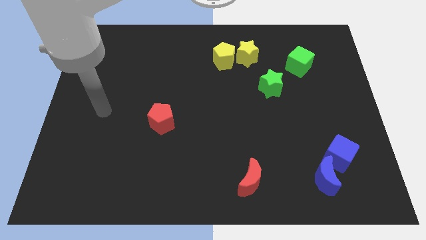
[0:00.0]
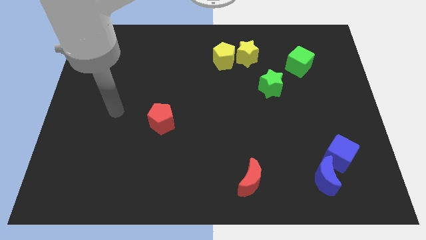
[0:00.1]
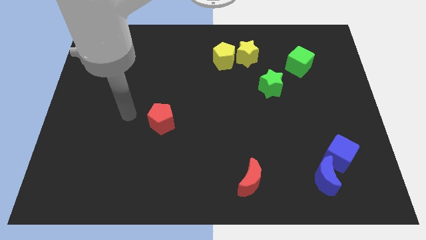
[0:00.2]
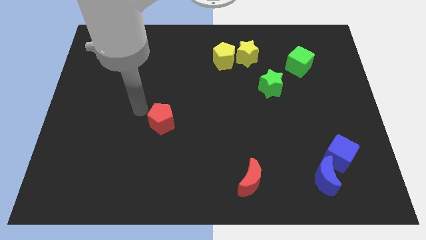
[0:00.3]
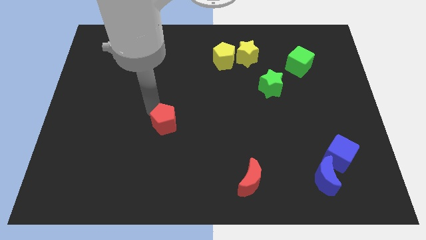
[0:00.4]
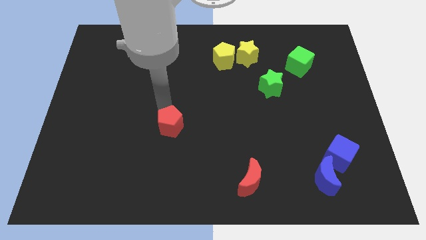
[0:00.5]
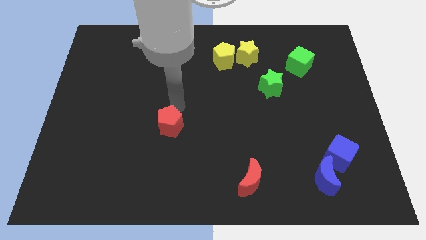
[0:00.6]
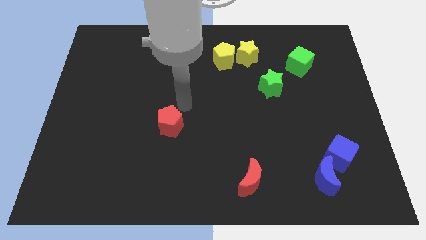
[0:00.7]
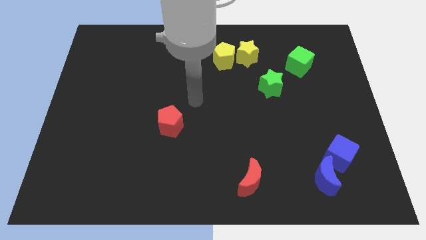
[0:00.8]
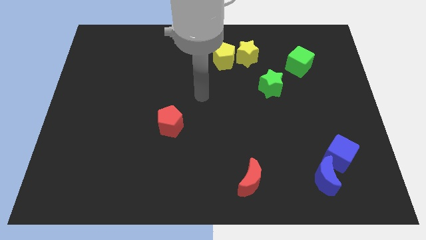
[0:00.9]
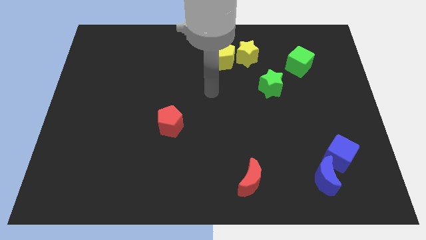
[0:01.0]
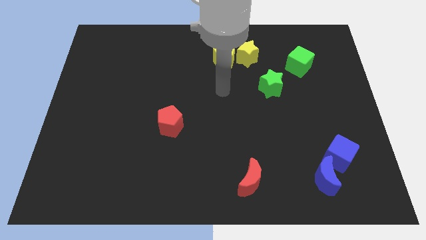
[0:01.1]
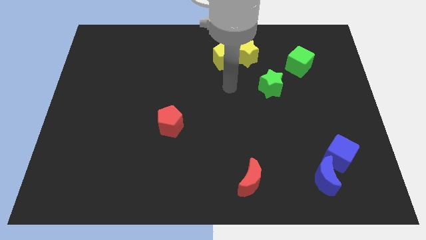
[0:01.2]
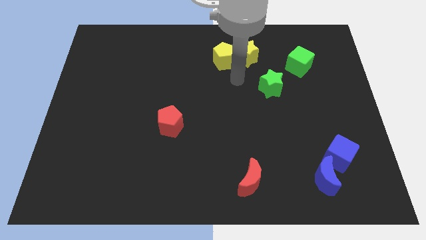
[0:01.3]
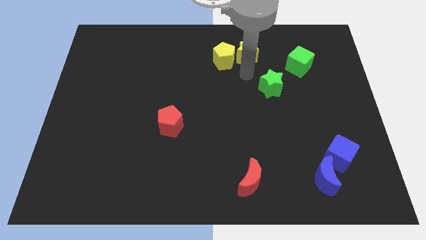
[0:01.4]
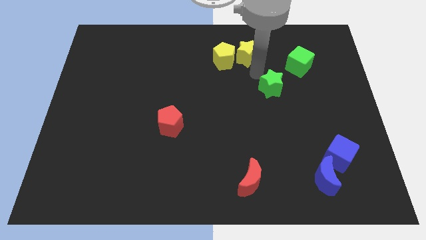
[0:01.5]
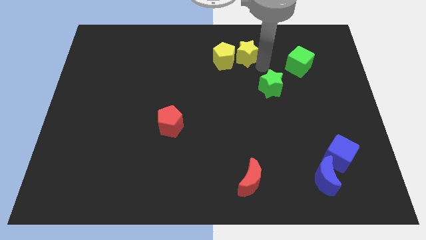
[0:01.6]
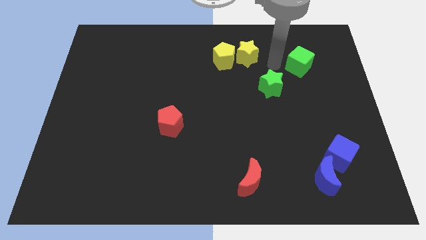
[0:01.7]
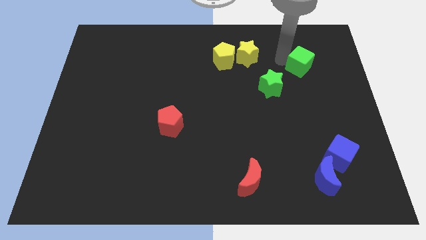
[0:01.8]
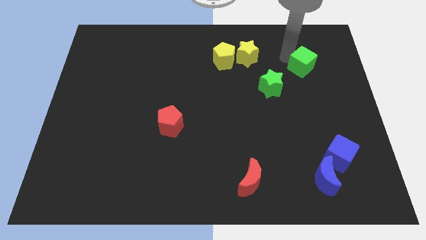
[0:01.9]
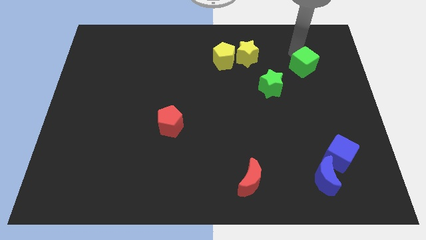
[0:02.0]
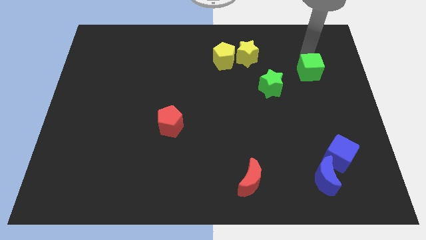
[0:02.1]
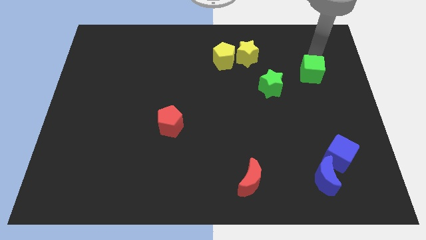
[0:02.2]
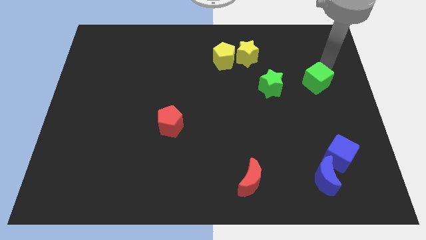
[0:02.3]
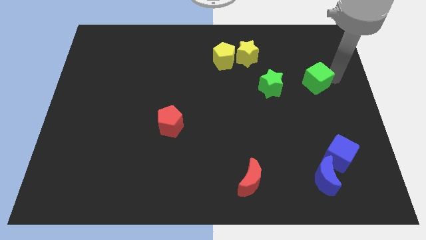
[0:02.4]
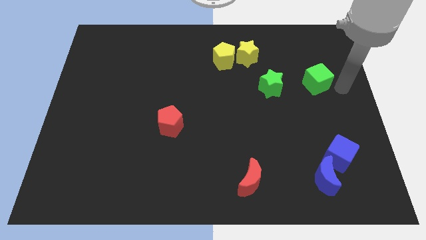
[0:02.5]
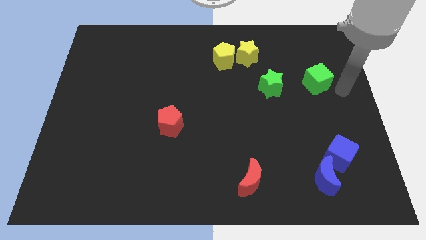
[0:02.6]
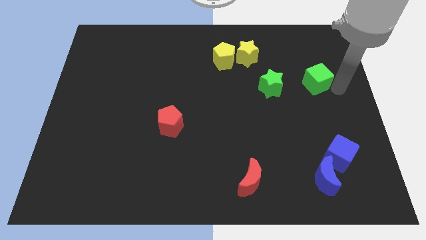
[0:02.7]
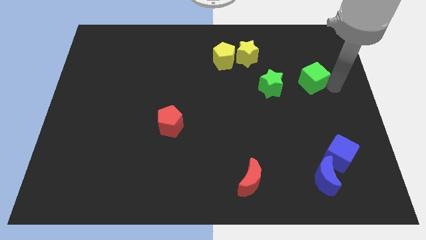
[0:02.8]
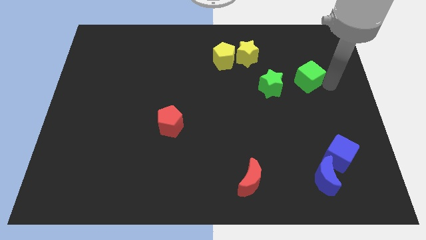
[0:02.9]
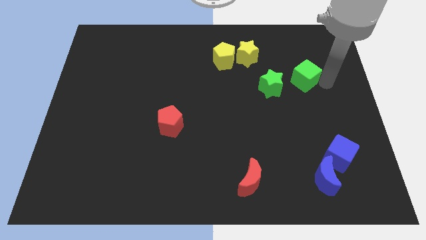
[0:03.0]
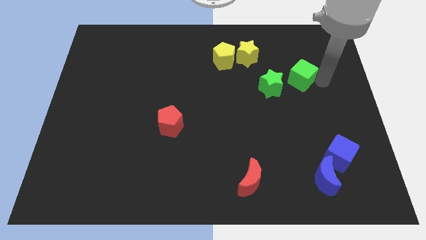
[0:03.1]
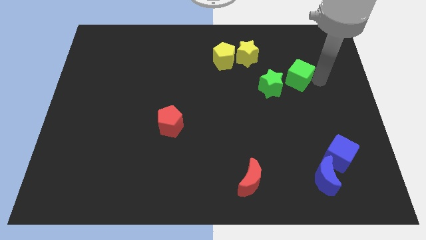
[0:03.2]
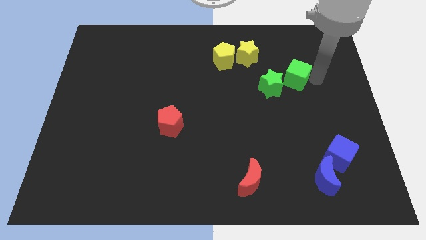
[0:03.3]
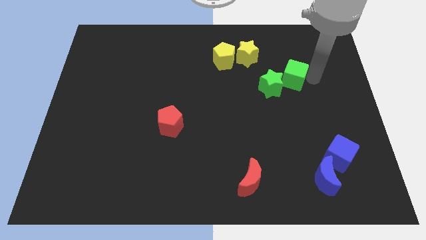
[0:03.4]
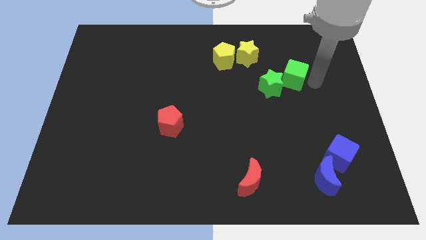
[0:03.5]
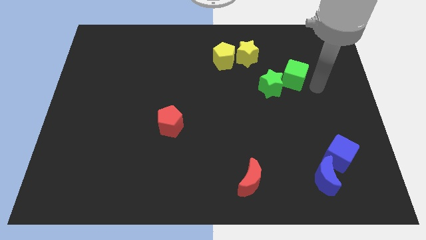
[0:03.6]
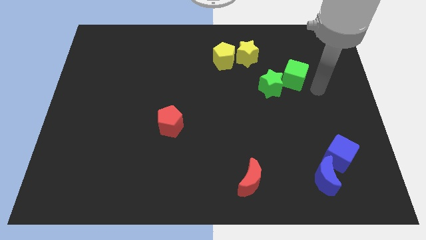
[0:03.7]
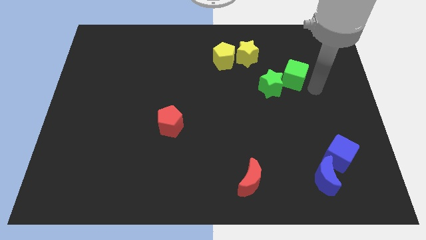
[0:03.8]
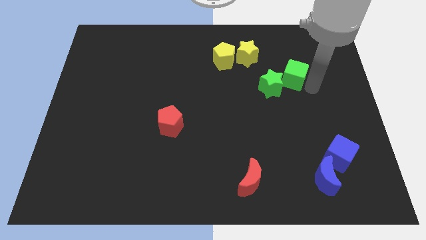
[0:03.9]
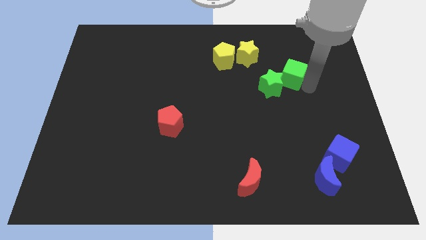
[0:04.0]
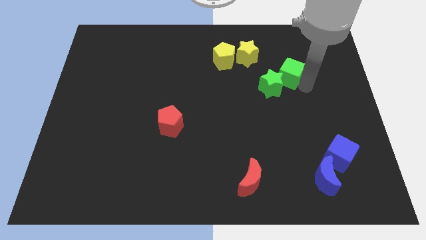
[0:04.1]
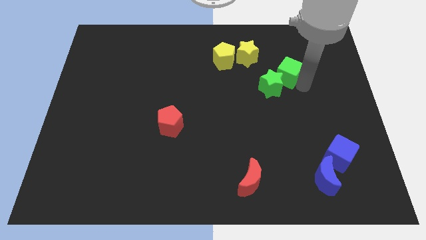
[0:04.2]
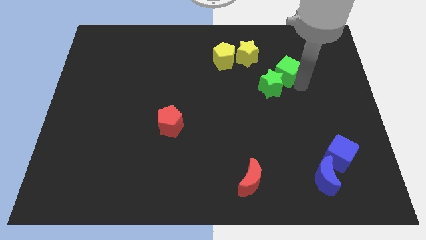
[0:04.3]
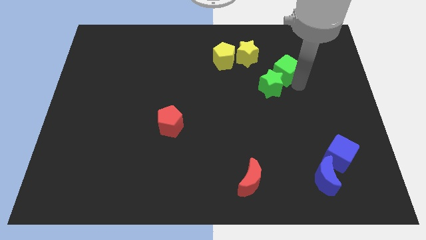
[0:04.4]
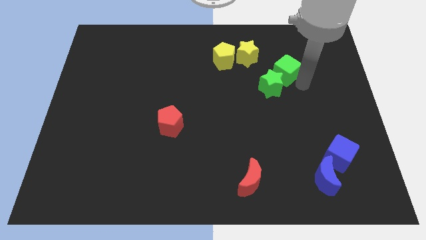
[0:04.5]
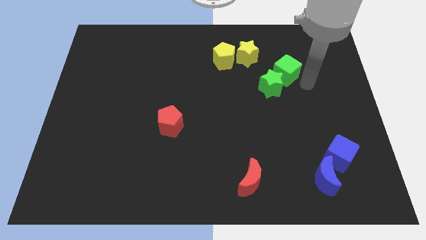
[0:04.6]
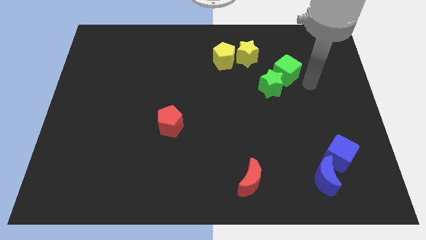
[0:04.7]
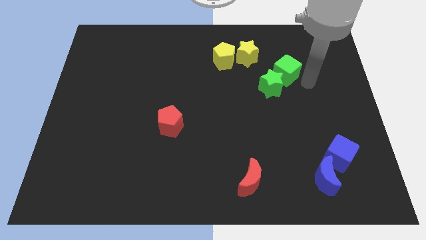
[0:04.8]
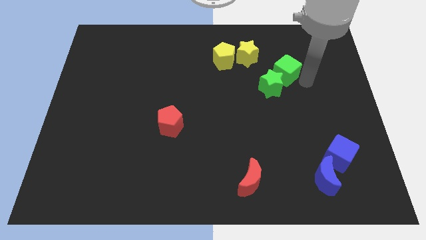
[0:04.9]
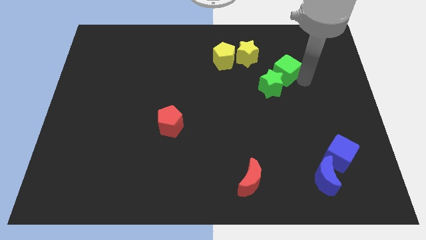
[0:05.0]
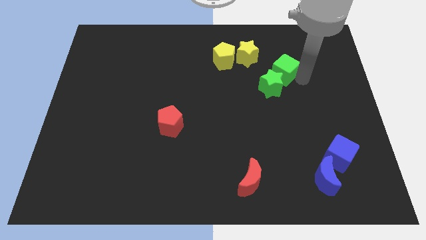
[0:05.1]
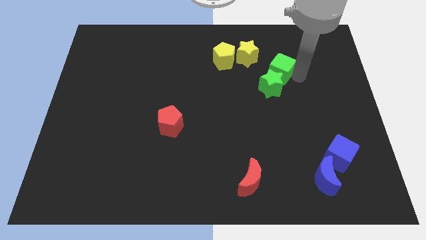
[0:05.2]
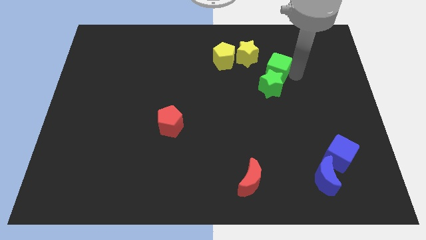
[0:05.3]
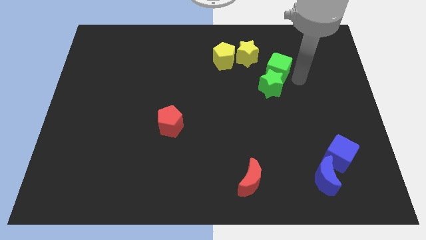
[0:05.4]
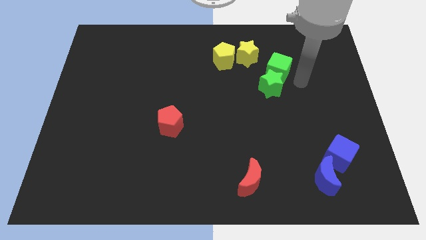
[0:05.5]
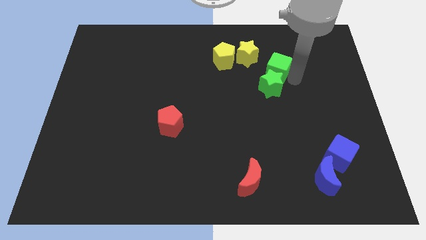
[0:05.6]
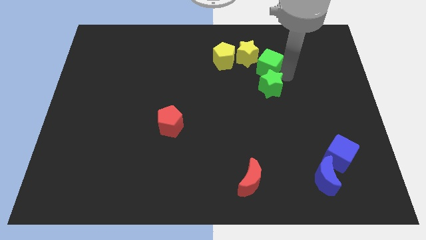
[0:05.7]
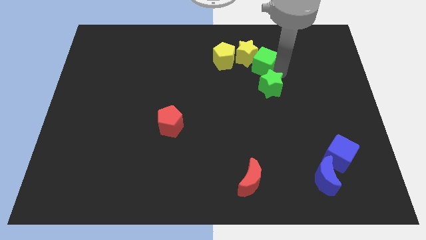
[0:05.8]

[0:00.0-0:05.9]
move the green cube to the yellow star
